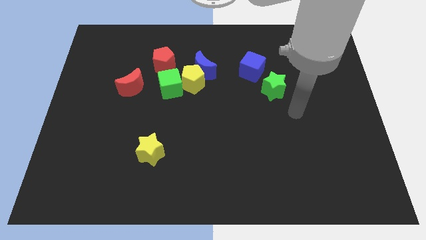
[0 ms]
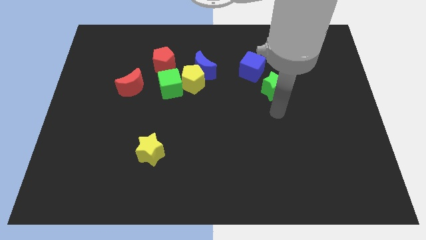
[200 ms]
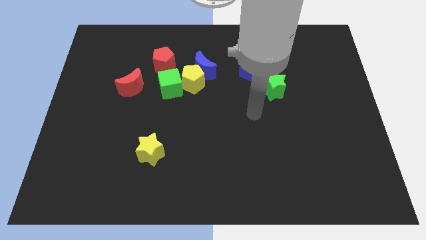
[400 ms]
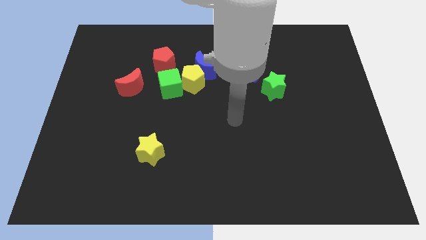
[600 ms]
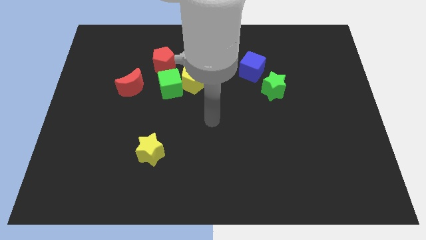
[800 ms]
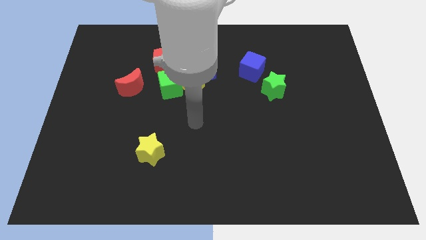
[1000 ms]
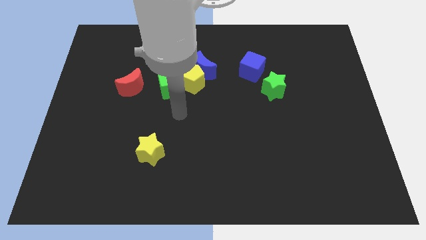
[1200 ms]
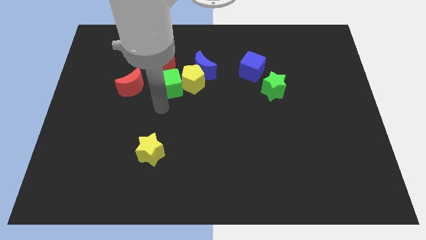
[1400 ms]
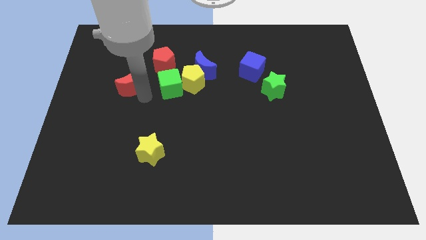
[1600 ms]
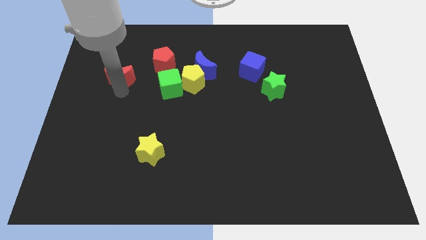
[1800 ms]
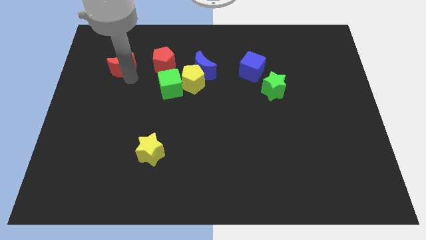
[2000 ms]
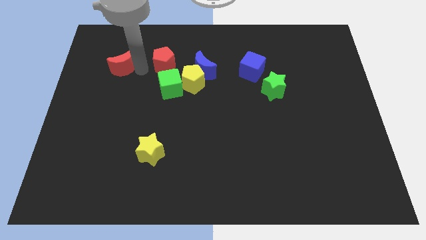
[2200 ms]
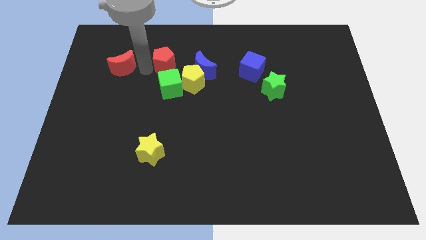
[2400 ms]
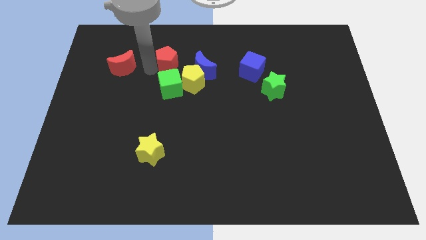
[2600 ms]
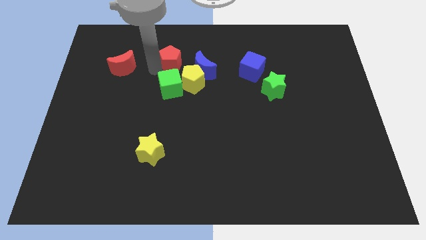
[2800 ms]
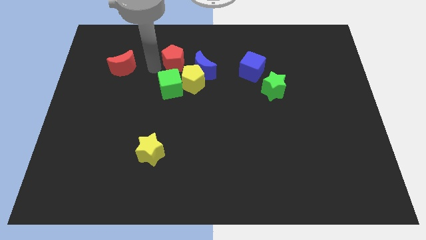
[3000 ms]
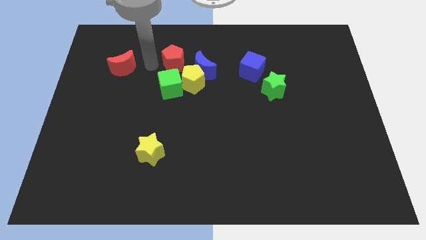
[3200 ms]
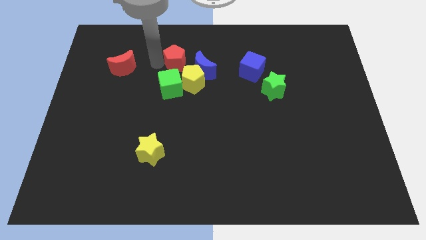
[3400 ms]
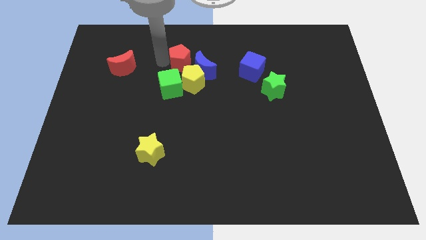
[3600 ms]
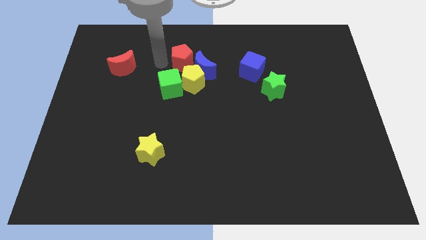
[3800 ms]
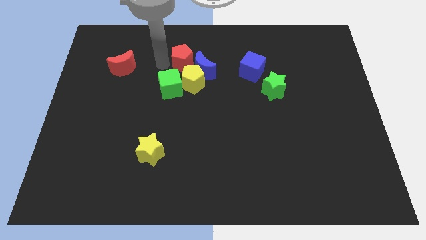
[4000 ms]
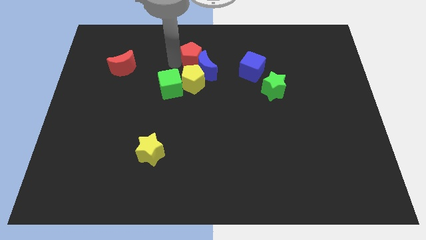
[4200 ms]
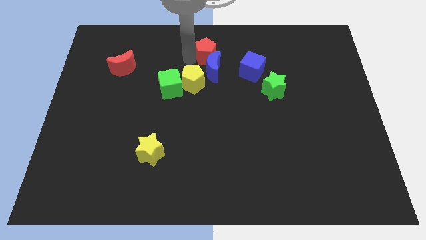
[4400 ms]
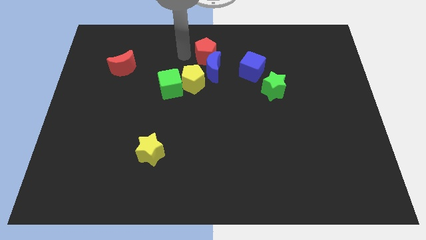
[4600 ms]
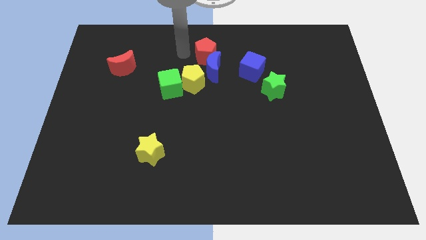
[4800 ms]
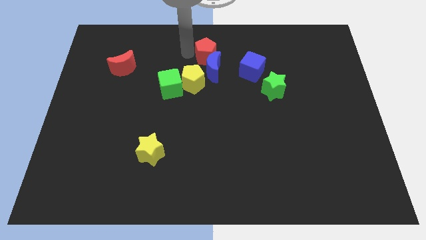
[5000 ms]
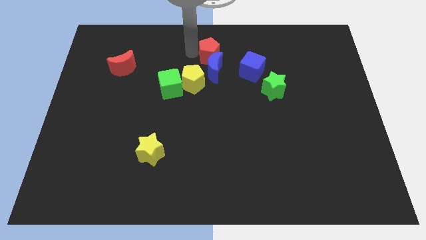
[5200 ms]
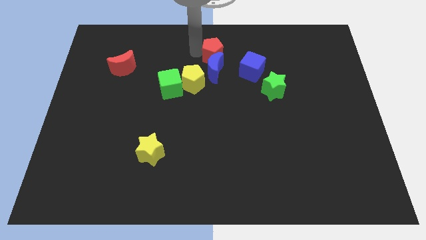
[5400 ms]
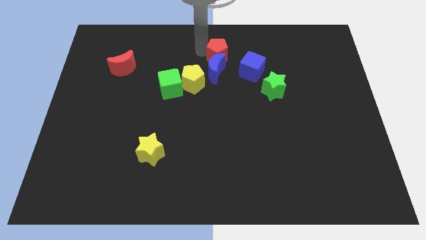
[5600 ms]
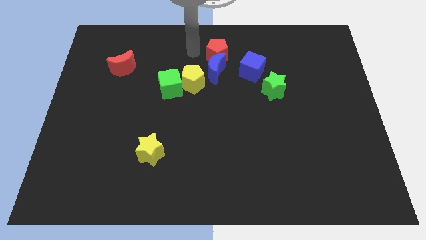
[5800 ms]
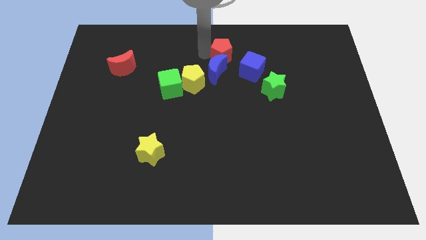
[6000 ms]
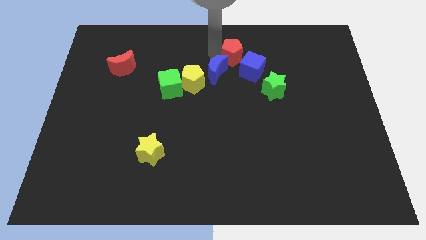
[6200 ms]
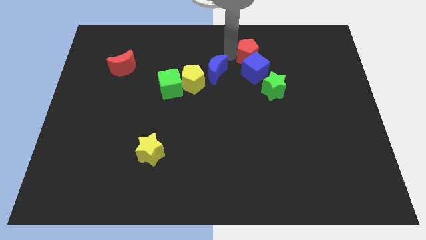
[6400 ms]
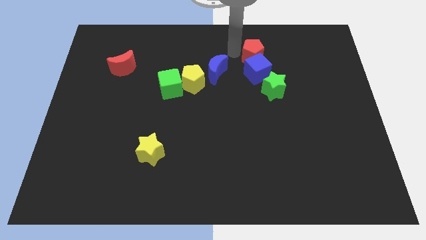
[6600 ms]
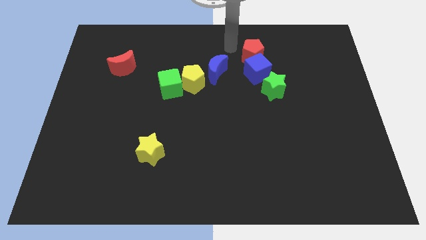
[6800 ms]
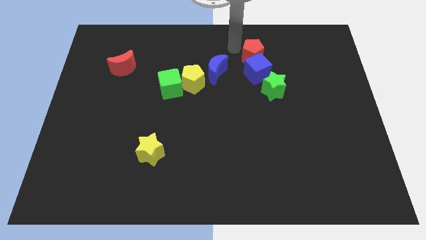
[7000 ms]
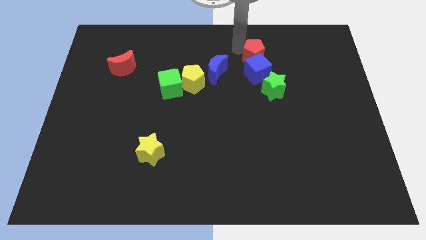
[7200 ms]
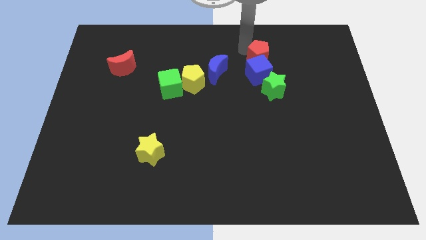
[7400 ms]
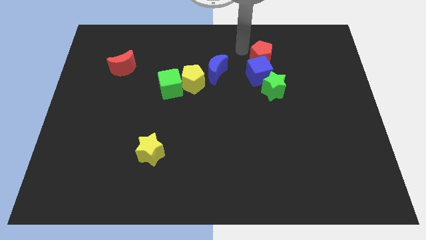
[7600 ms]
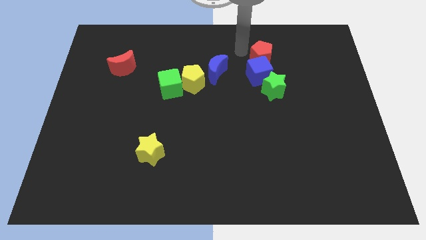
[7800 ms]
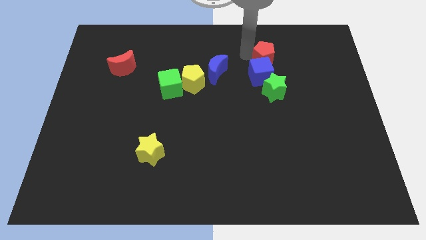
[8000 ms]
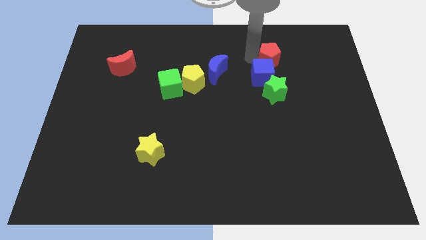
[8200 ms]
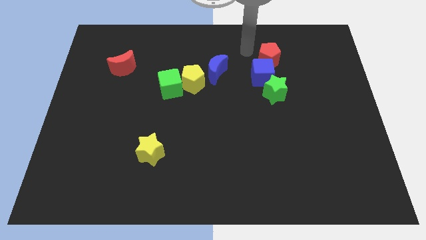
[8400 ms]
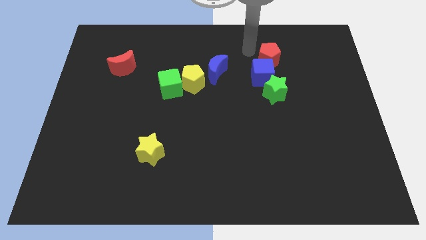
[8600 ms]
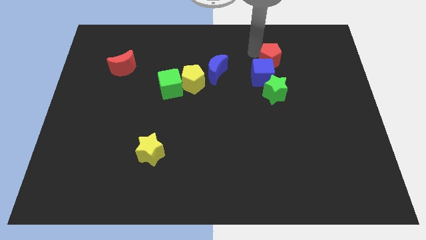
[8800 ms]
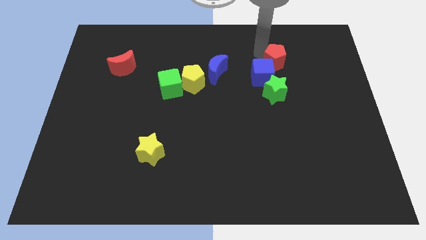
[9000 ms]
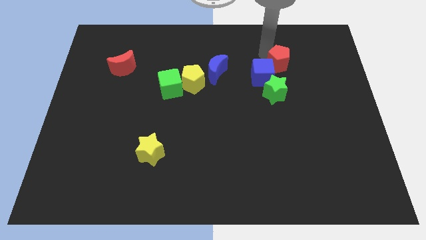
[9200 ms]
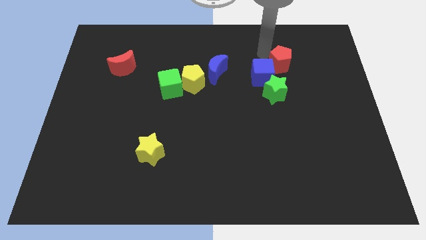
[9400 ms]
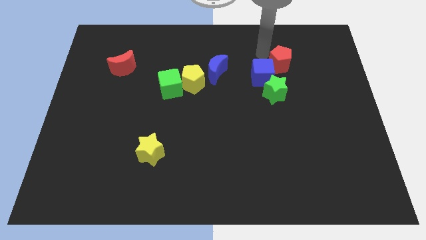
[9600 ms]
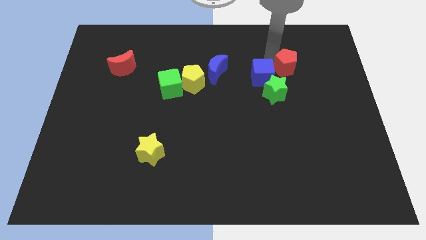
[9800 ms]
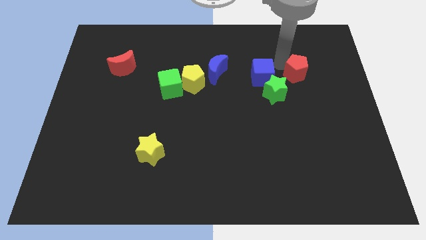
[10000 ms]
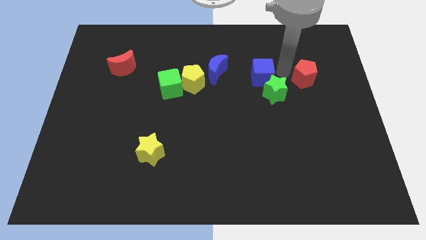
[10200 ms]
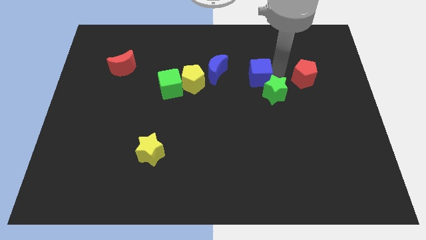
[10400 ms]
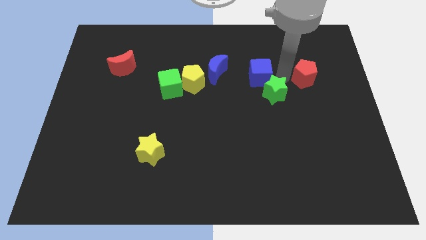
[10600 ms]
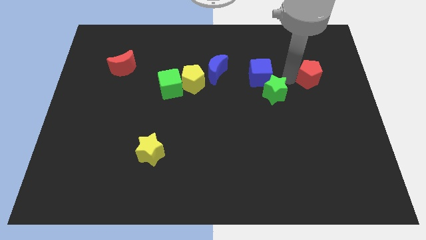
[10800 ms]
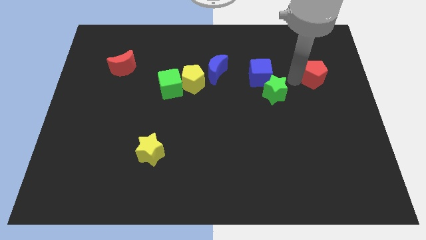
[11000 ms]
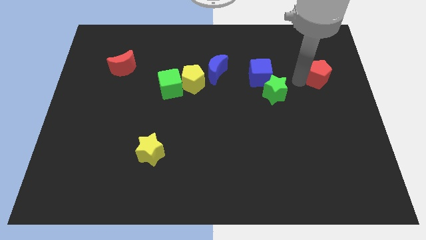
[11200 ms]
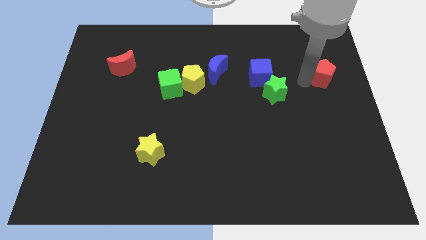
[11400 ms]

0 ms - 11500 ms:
slide the red pentagon to the right side of the board
